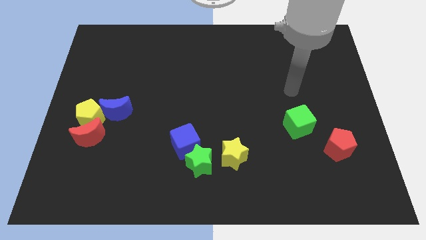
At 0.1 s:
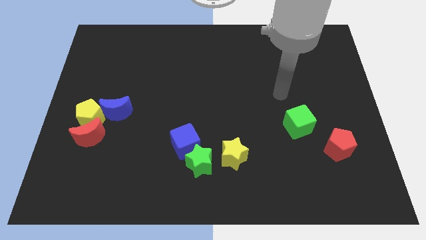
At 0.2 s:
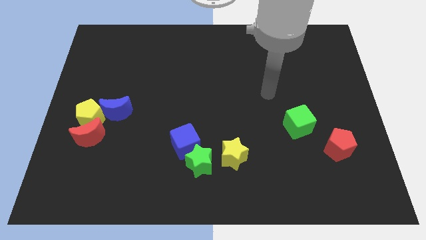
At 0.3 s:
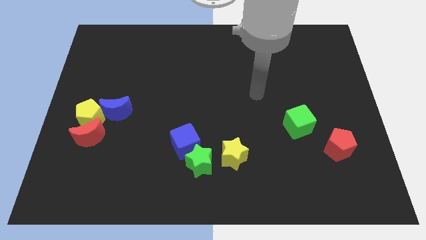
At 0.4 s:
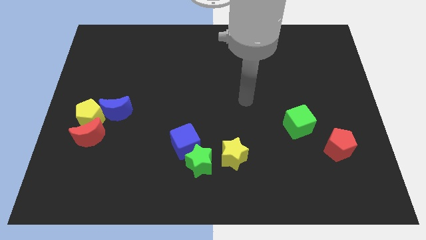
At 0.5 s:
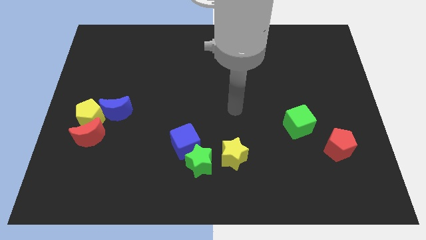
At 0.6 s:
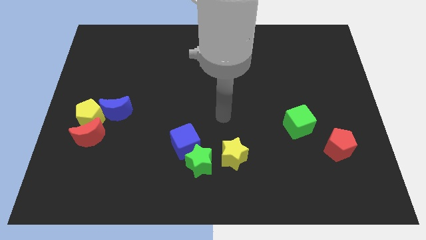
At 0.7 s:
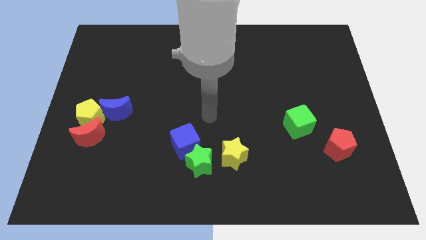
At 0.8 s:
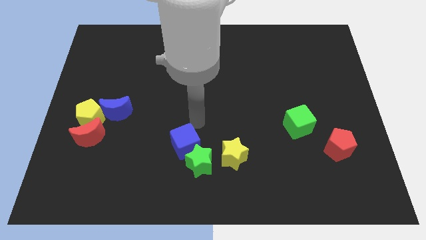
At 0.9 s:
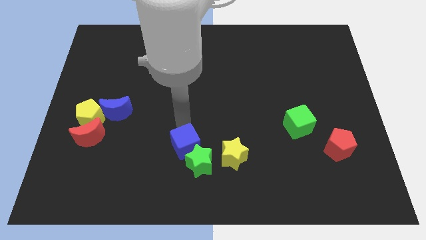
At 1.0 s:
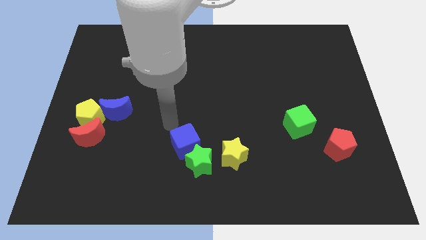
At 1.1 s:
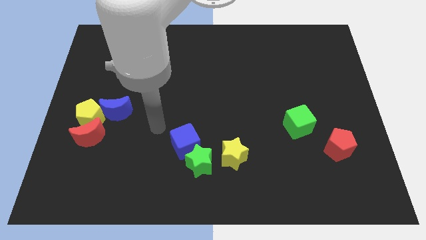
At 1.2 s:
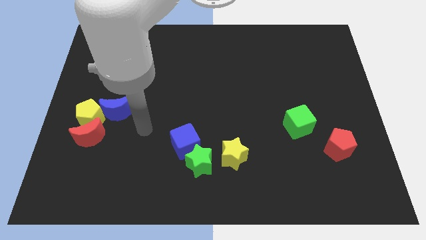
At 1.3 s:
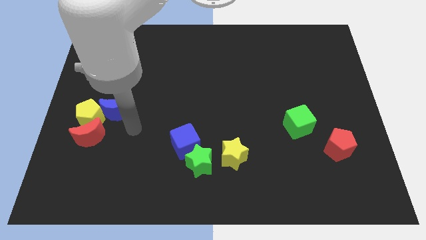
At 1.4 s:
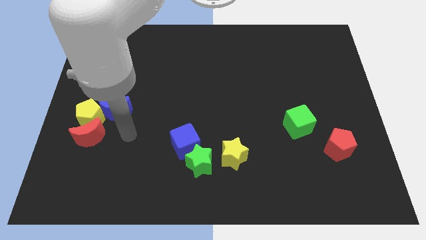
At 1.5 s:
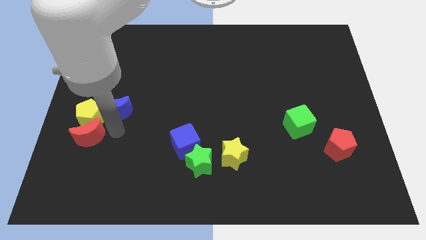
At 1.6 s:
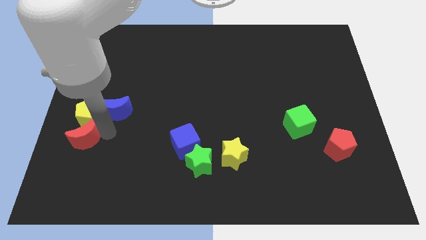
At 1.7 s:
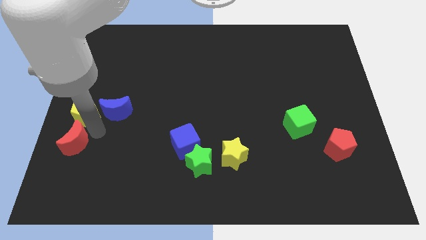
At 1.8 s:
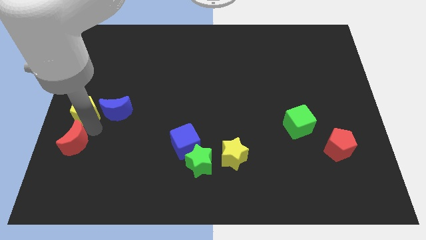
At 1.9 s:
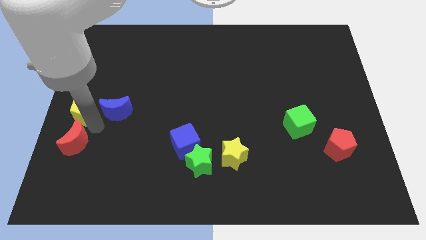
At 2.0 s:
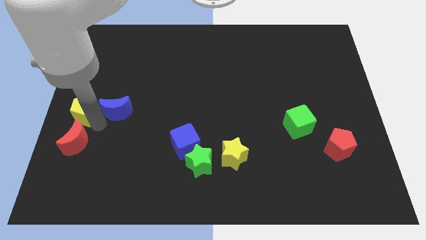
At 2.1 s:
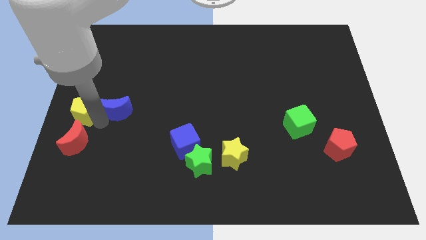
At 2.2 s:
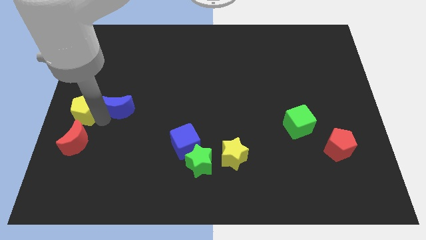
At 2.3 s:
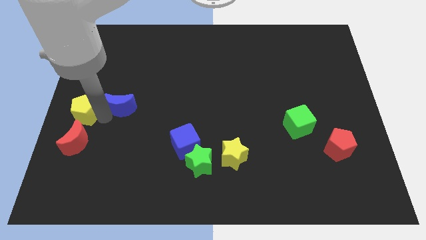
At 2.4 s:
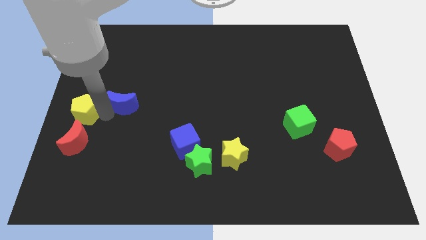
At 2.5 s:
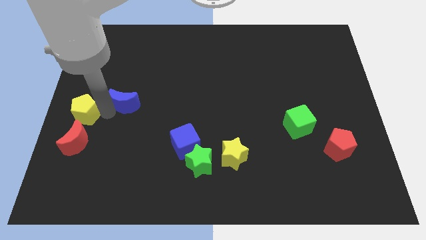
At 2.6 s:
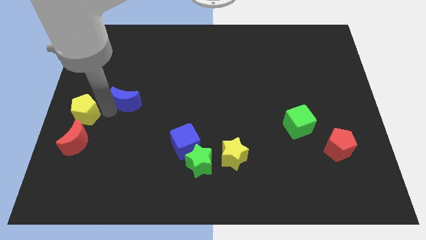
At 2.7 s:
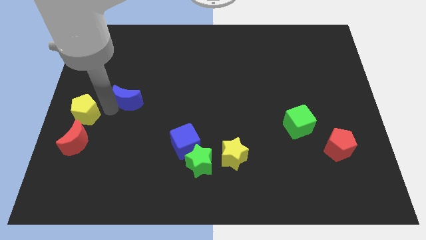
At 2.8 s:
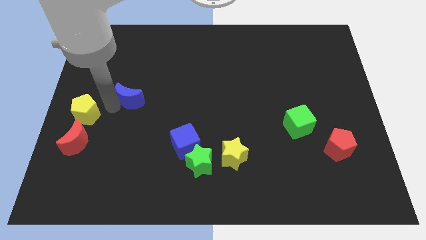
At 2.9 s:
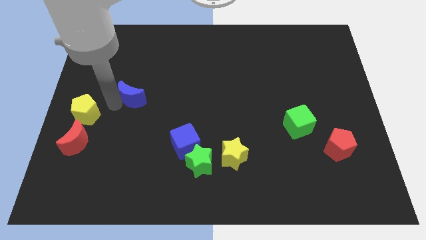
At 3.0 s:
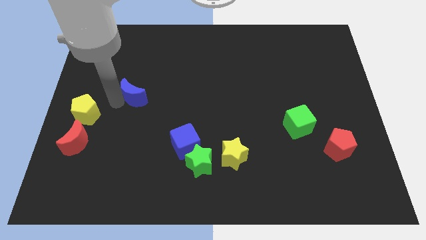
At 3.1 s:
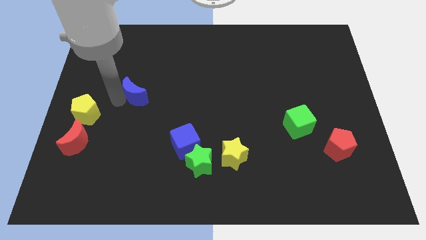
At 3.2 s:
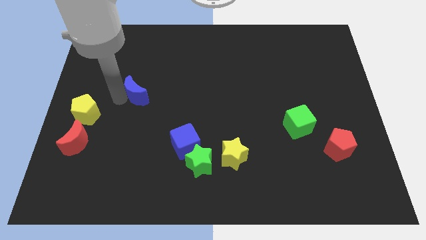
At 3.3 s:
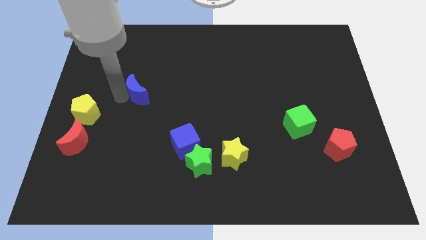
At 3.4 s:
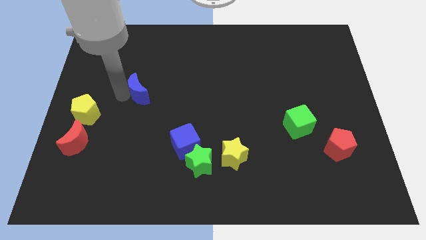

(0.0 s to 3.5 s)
slide the blue moon slightly upwards and right

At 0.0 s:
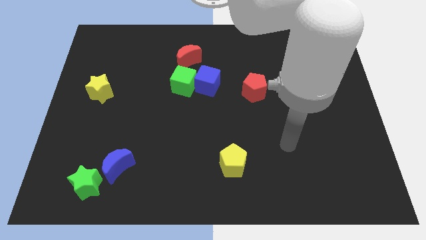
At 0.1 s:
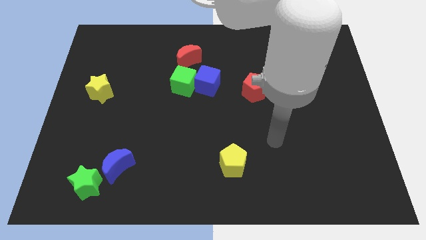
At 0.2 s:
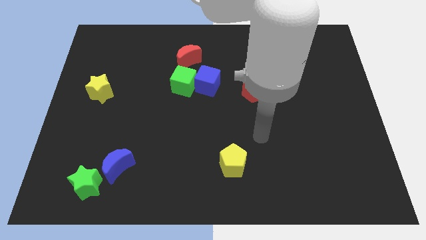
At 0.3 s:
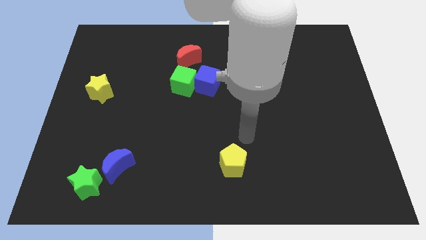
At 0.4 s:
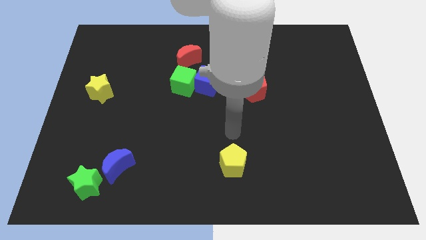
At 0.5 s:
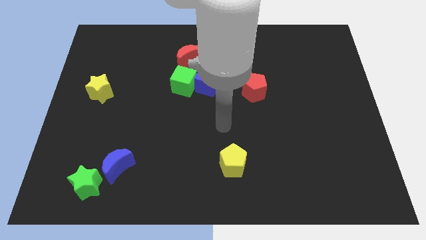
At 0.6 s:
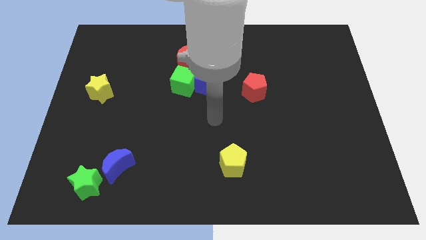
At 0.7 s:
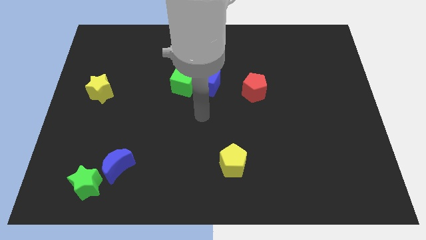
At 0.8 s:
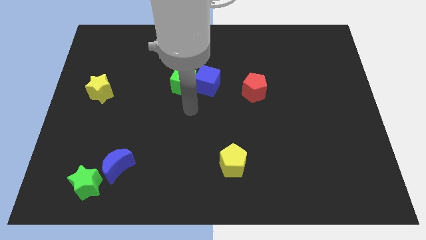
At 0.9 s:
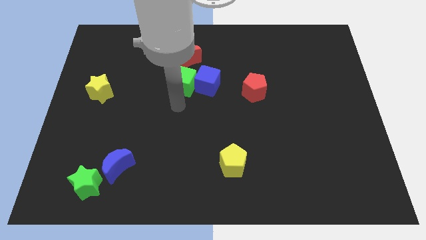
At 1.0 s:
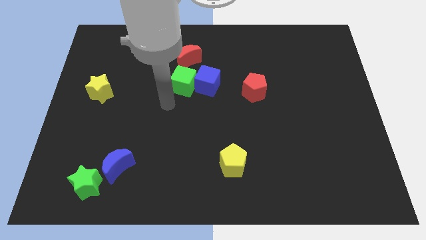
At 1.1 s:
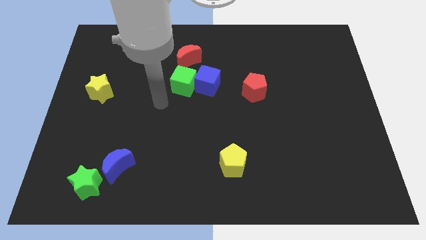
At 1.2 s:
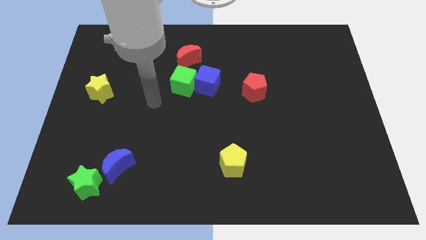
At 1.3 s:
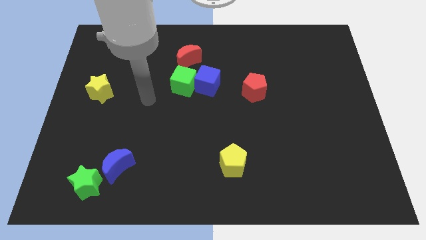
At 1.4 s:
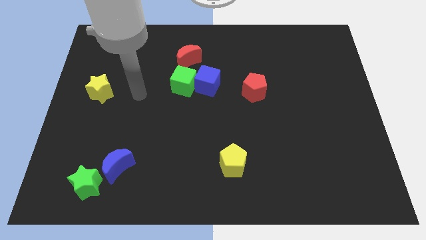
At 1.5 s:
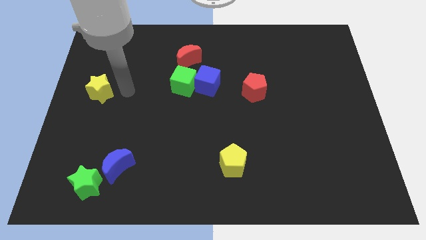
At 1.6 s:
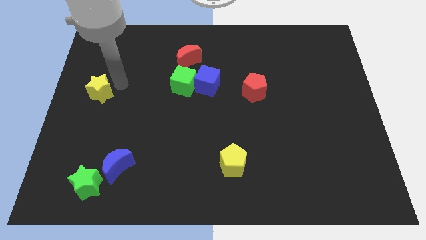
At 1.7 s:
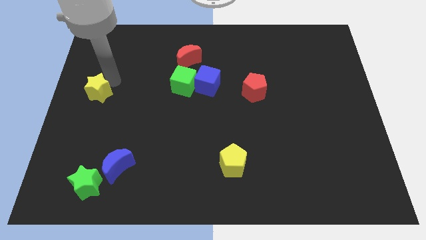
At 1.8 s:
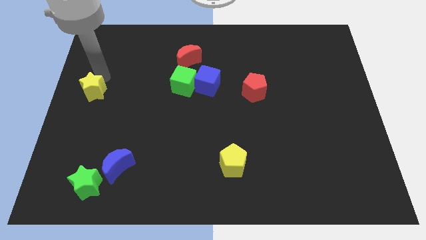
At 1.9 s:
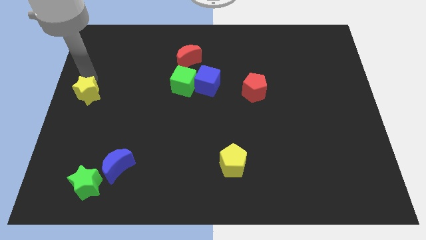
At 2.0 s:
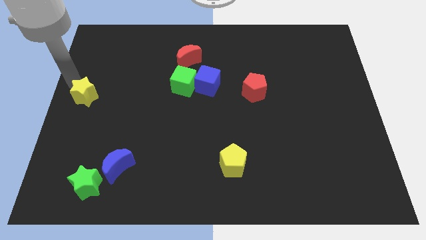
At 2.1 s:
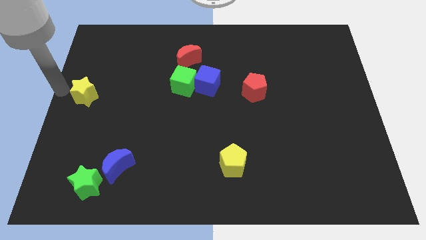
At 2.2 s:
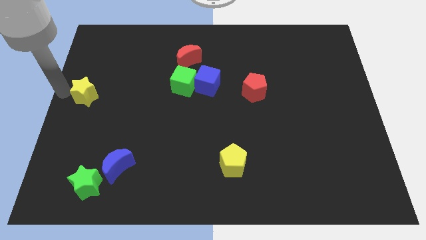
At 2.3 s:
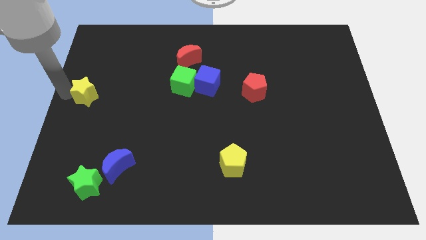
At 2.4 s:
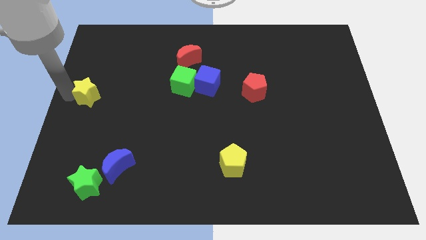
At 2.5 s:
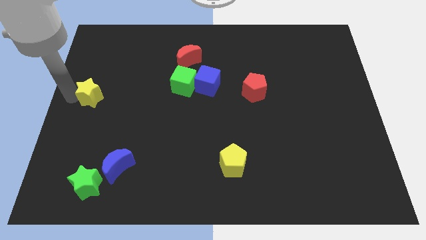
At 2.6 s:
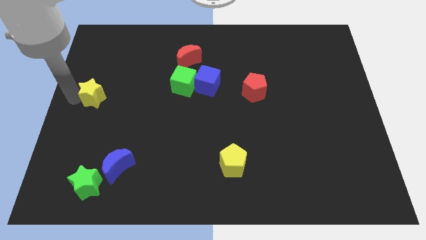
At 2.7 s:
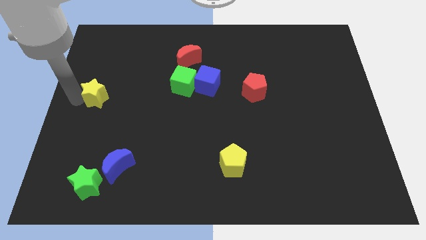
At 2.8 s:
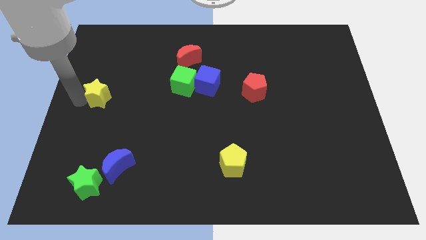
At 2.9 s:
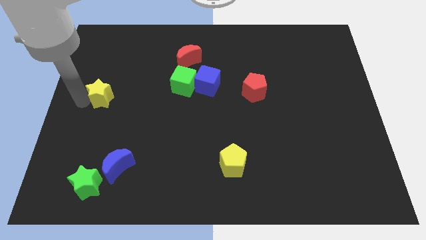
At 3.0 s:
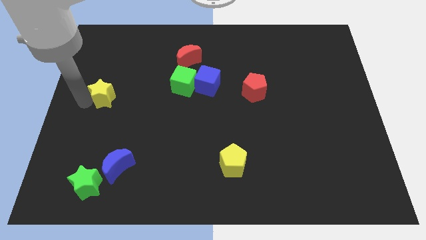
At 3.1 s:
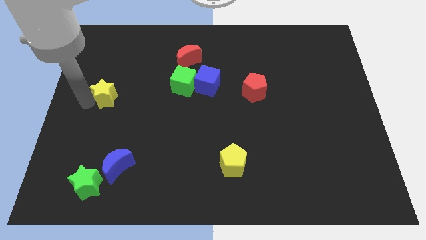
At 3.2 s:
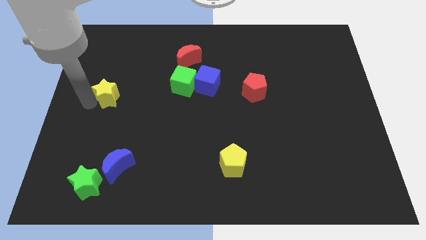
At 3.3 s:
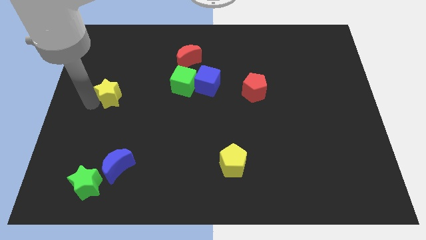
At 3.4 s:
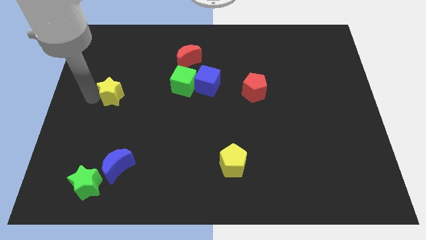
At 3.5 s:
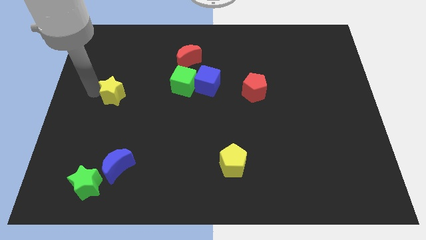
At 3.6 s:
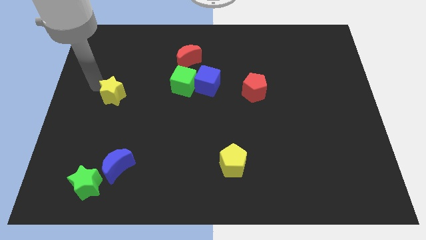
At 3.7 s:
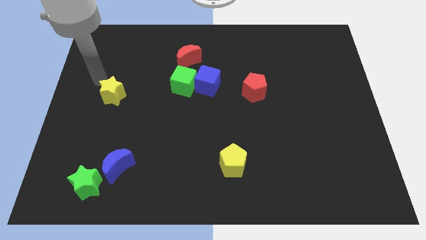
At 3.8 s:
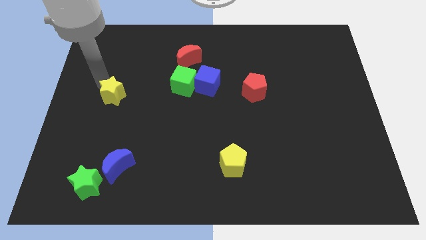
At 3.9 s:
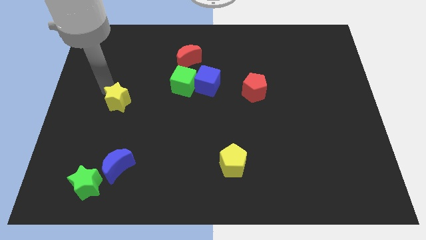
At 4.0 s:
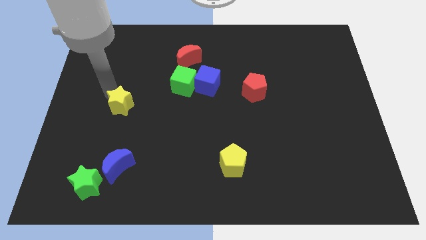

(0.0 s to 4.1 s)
slightly push the yellow star down and right

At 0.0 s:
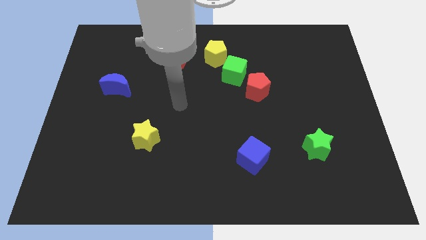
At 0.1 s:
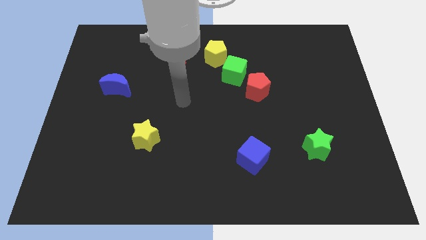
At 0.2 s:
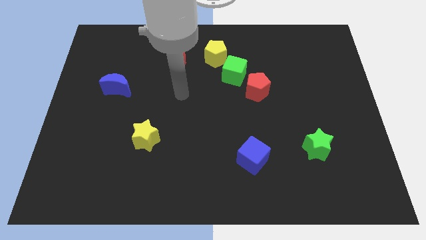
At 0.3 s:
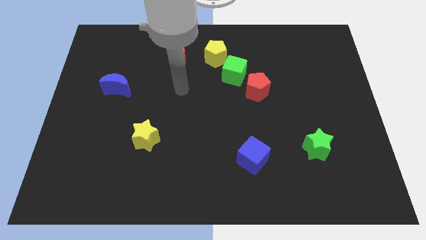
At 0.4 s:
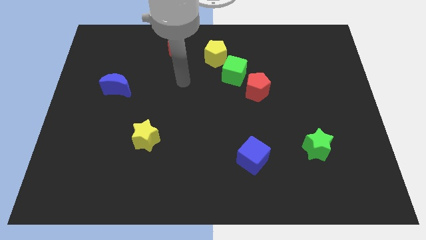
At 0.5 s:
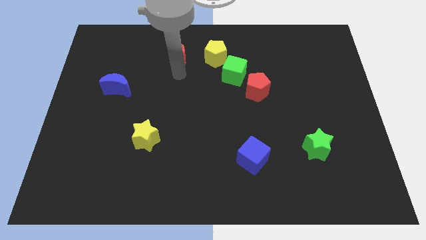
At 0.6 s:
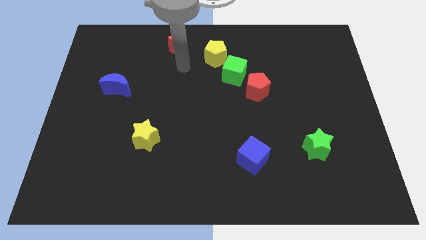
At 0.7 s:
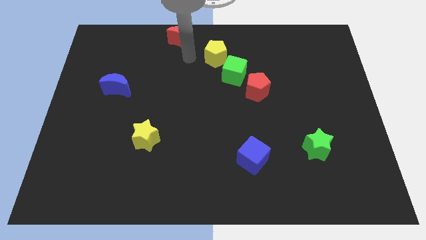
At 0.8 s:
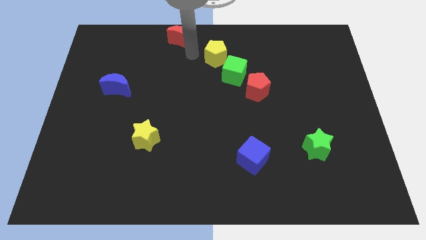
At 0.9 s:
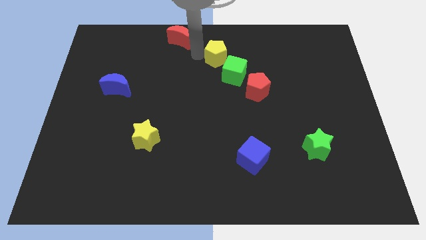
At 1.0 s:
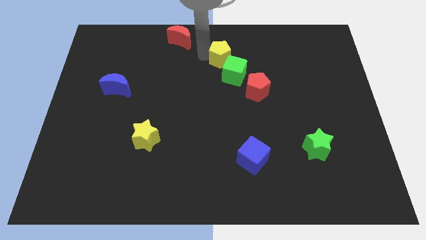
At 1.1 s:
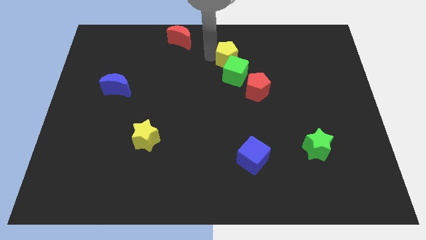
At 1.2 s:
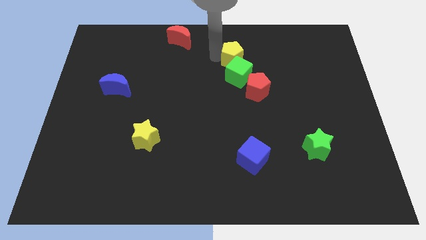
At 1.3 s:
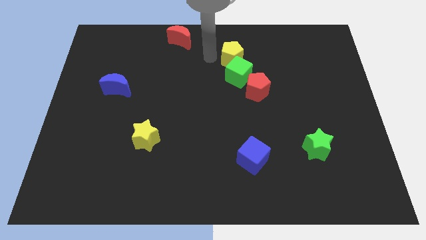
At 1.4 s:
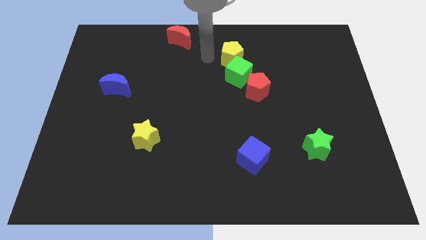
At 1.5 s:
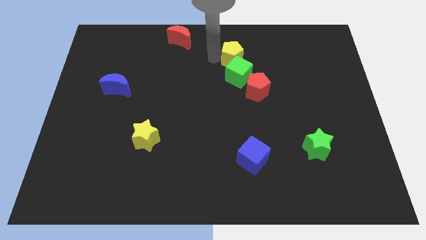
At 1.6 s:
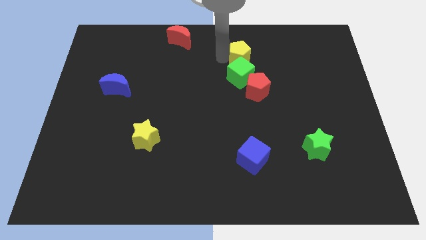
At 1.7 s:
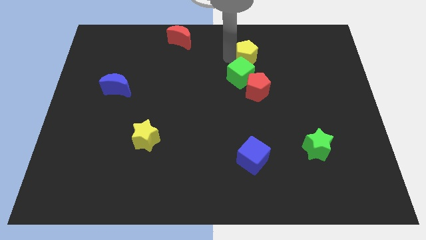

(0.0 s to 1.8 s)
move the yellow pentagon right a little bit
